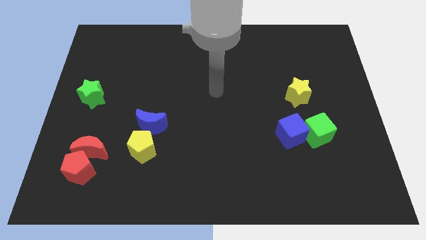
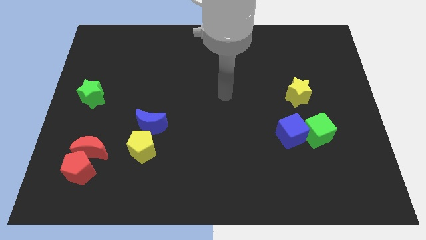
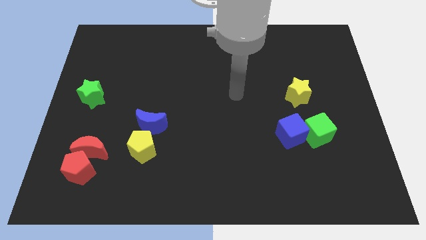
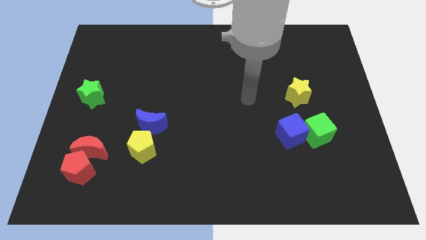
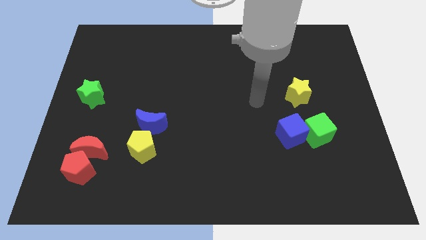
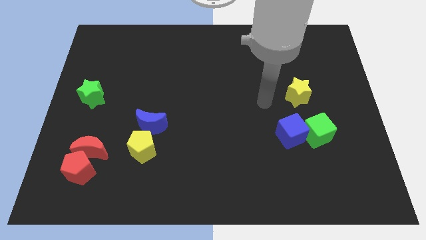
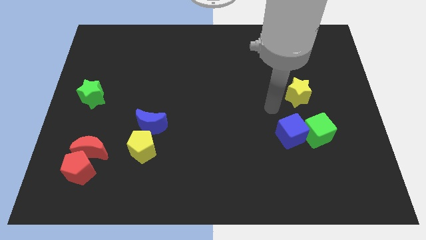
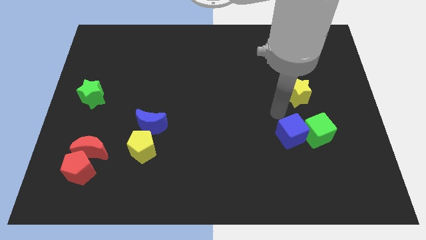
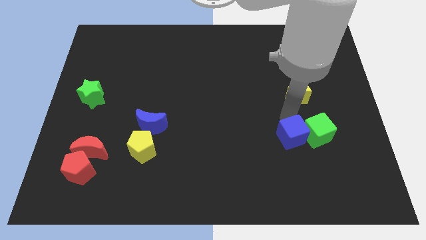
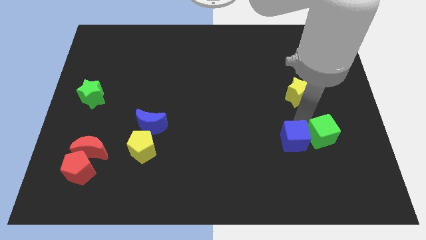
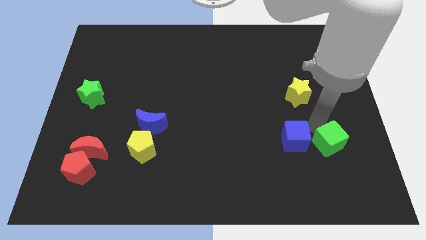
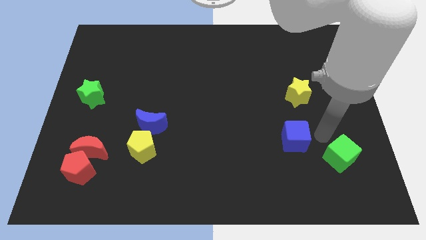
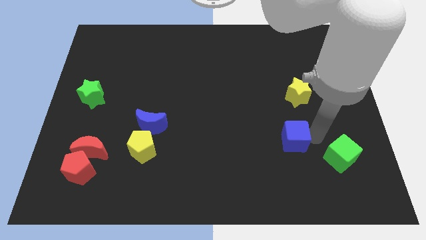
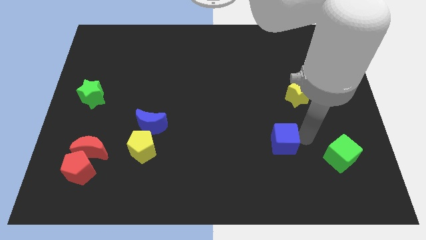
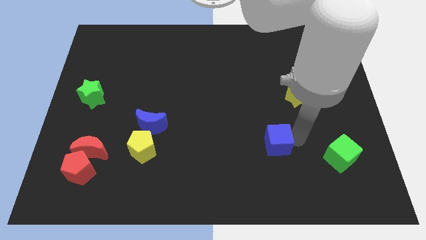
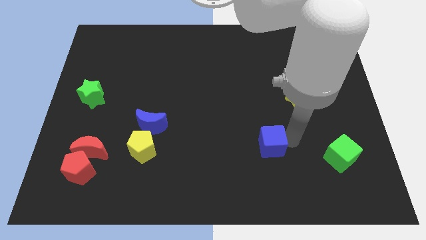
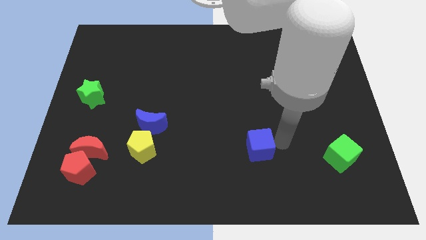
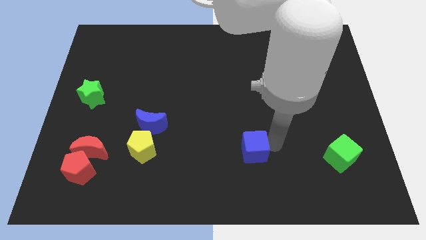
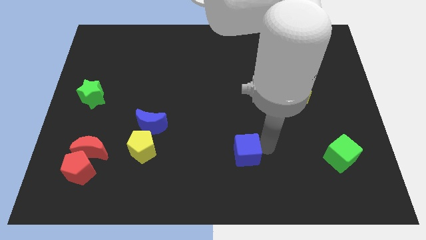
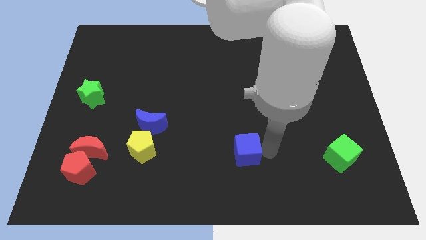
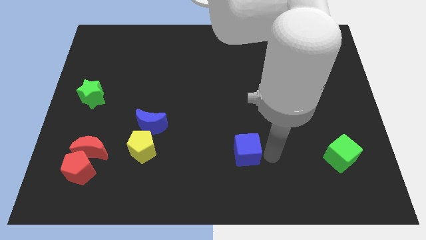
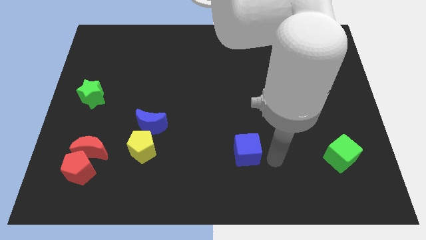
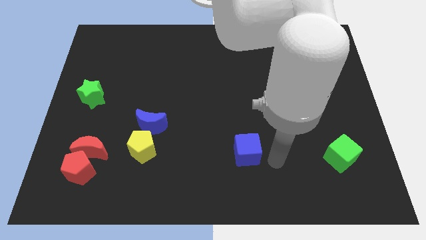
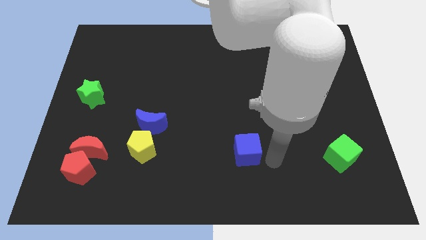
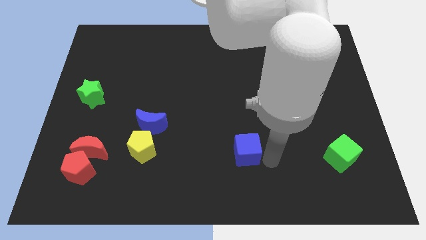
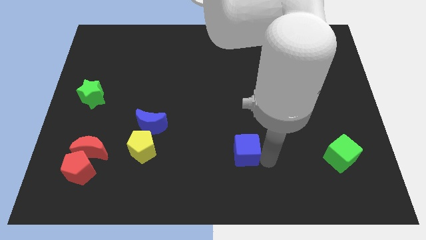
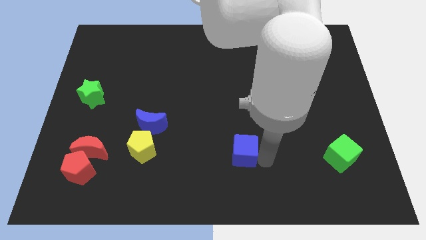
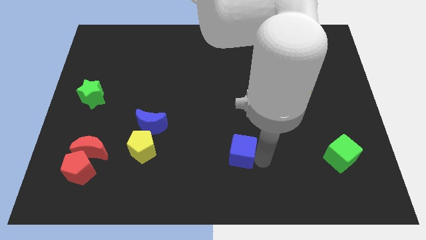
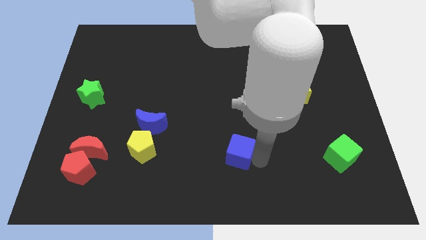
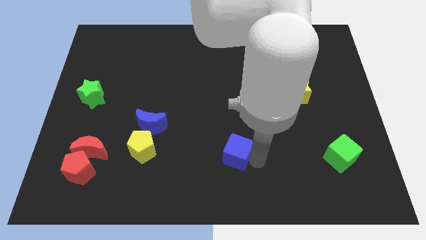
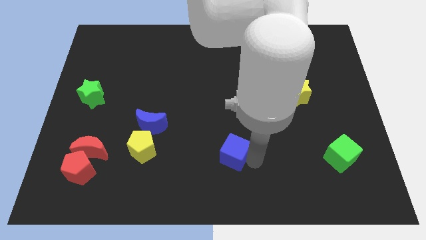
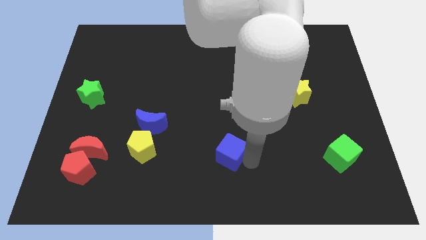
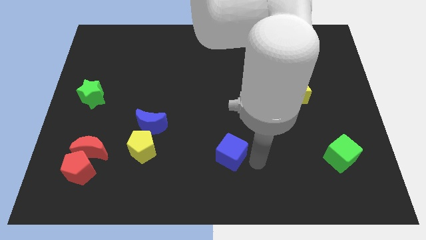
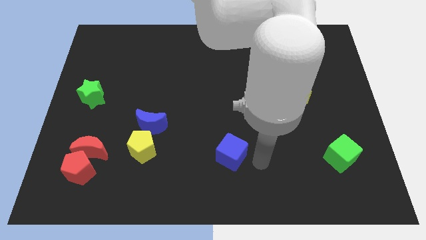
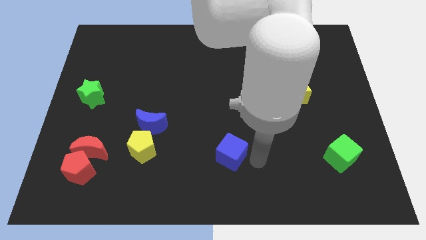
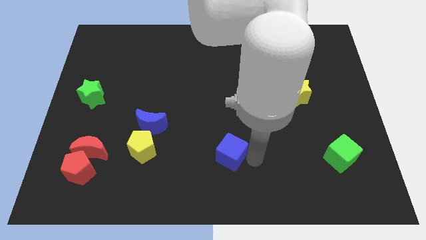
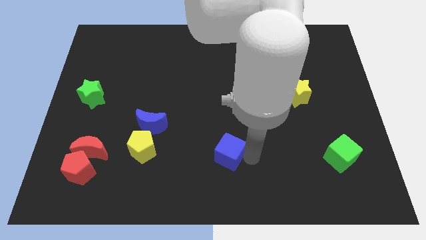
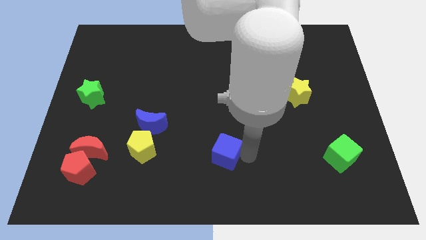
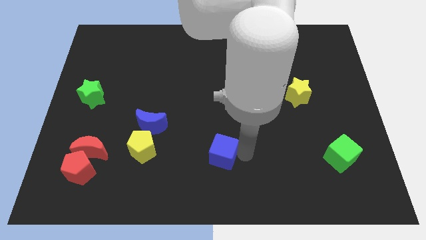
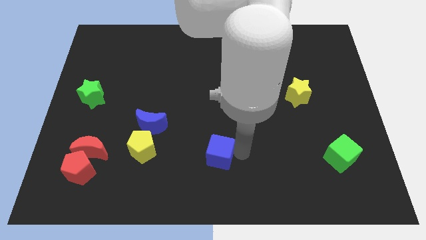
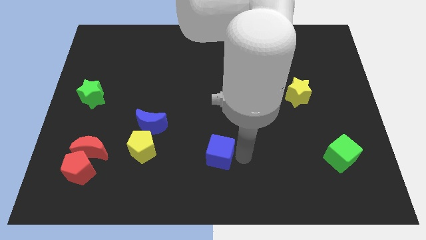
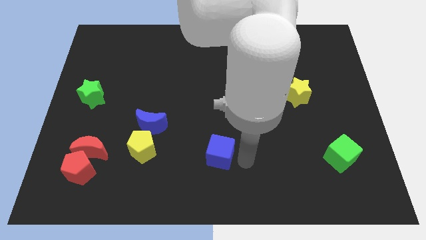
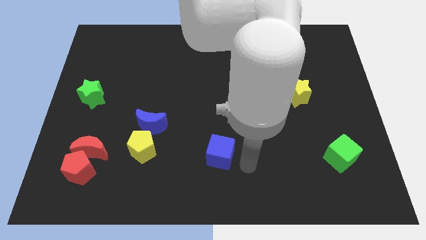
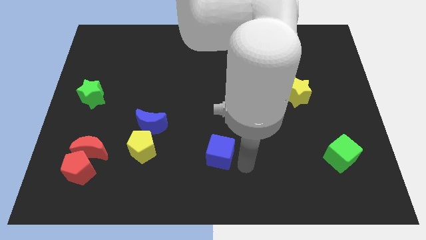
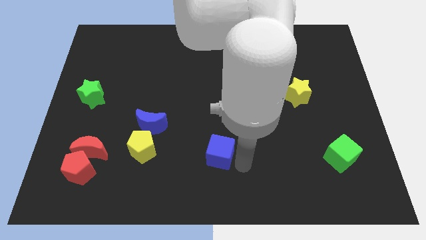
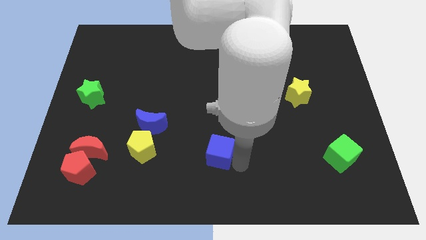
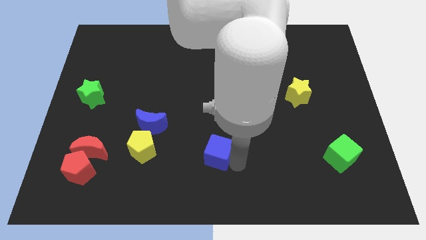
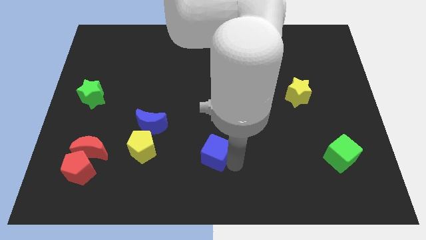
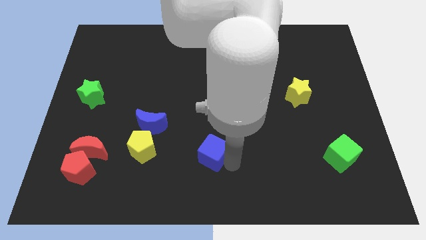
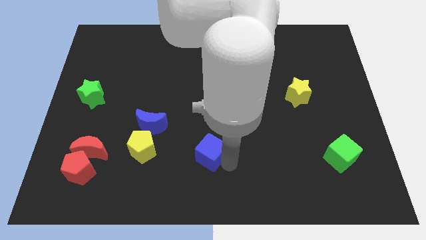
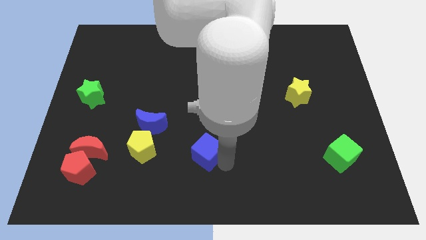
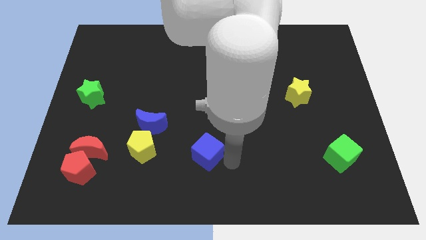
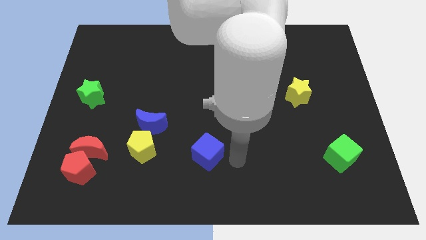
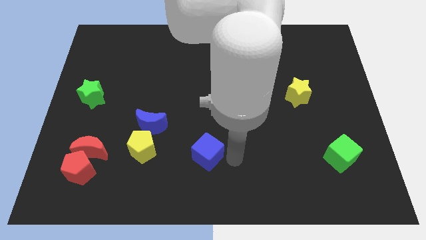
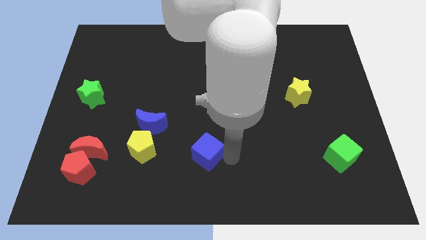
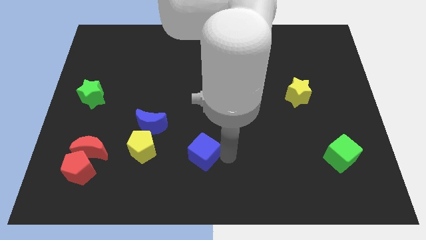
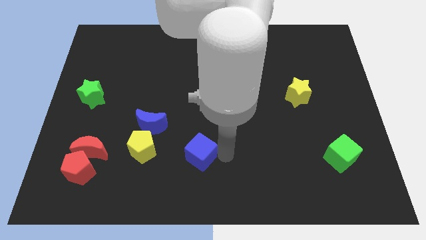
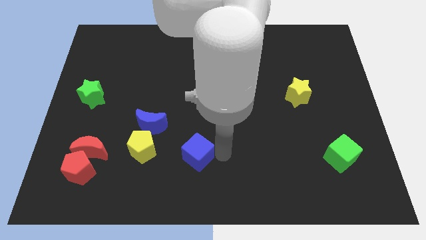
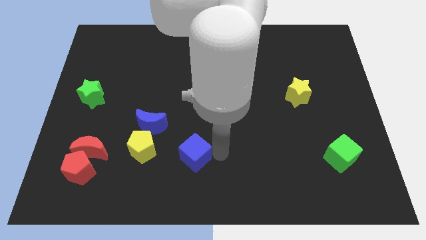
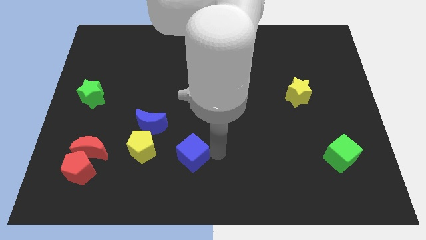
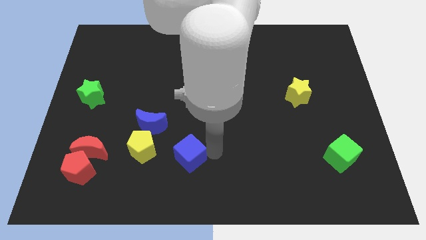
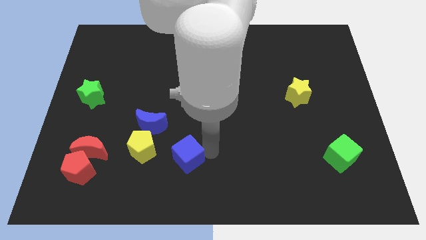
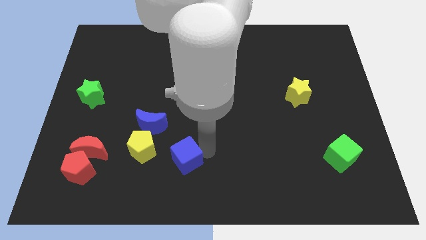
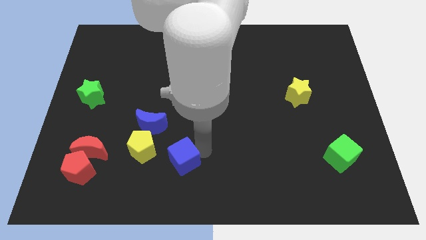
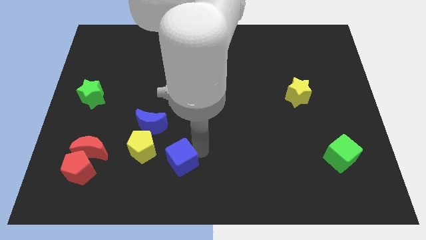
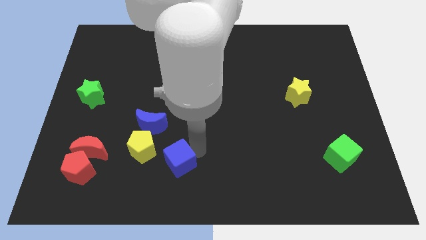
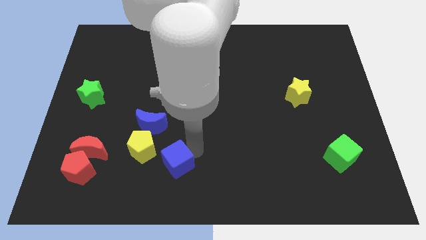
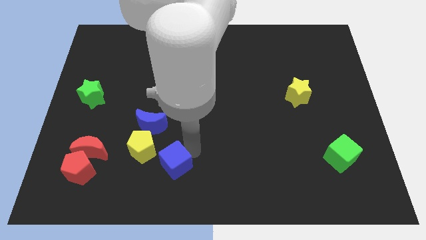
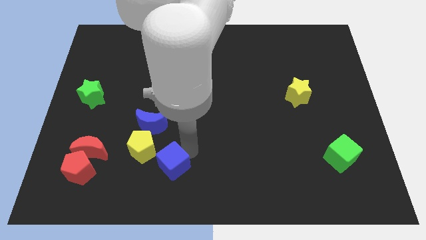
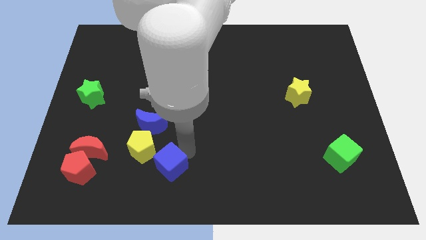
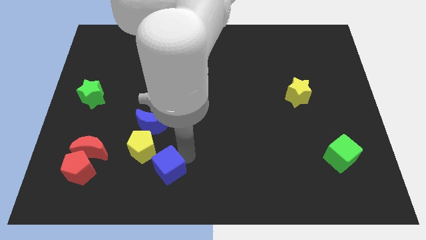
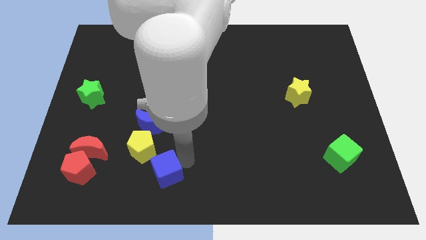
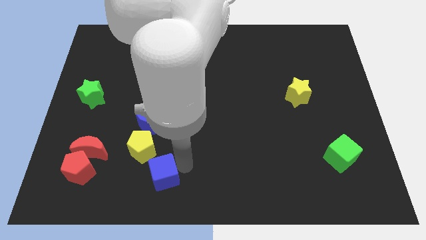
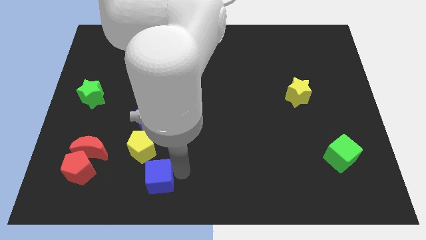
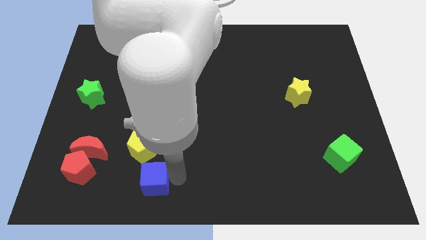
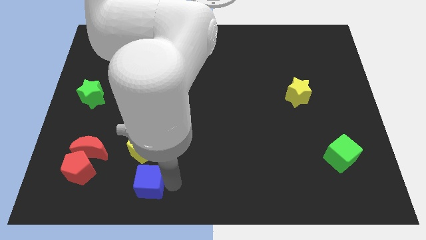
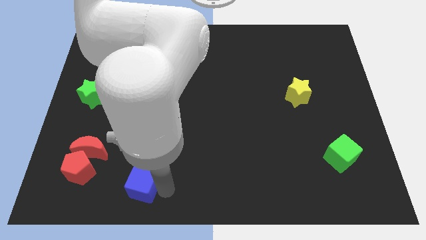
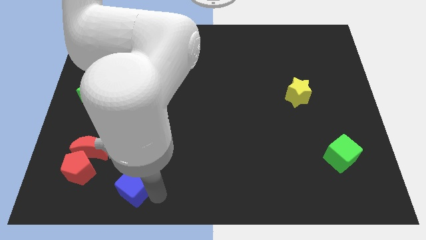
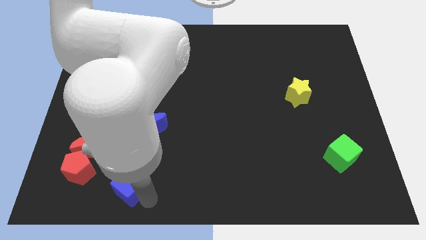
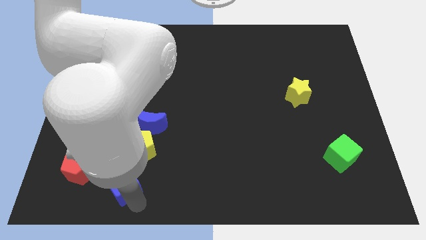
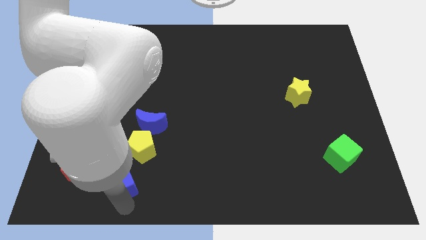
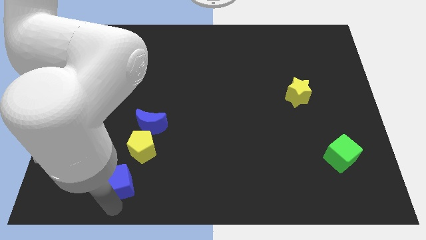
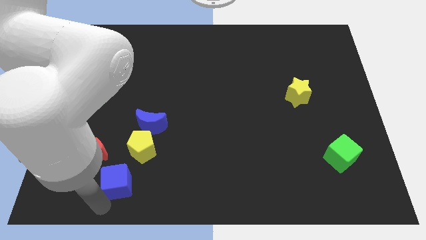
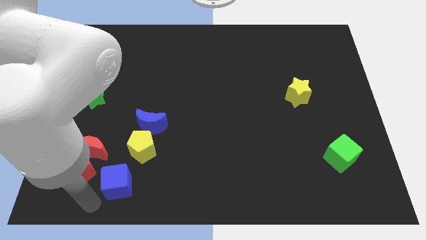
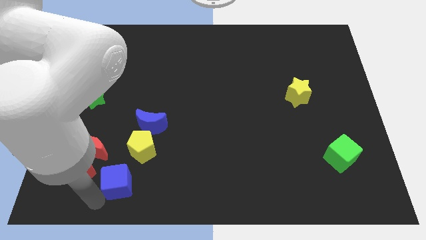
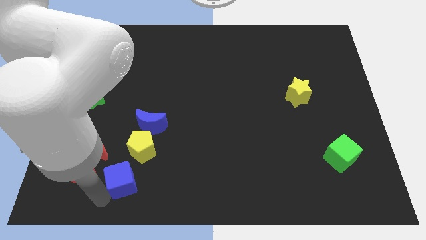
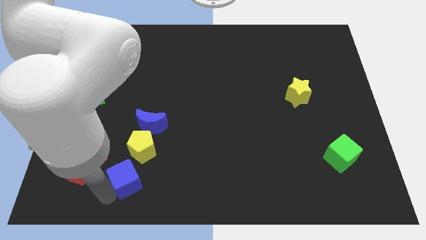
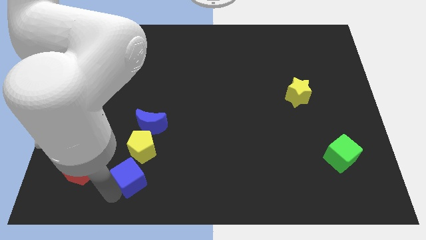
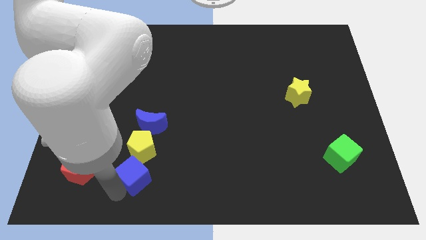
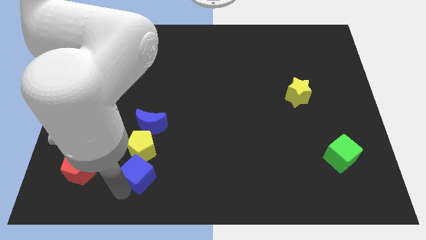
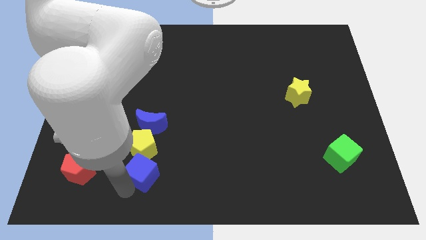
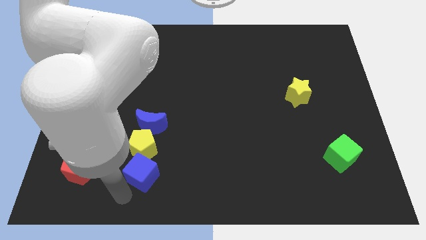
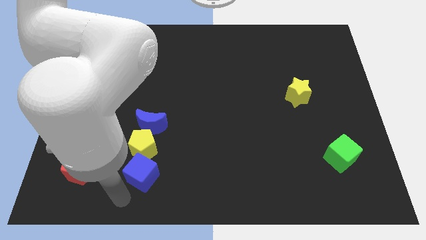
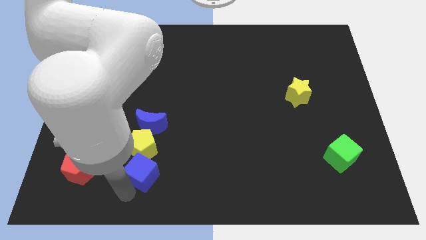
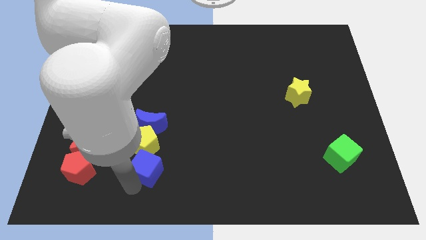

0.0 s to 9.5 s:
move the blue cube to the right side of the red moon
